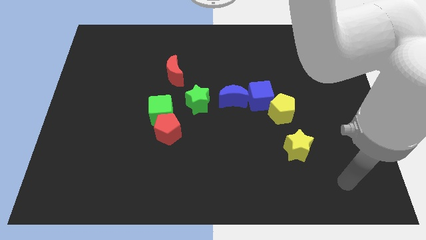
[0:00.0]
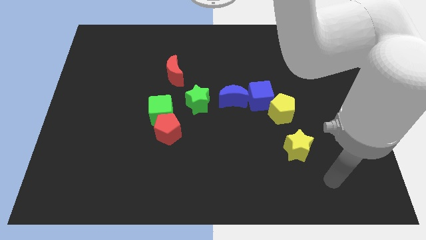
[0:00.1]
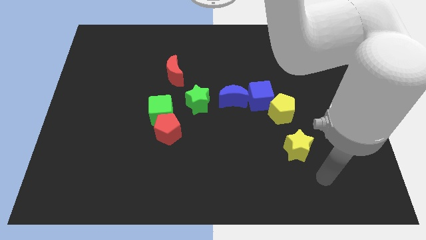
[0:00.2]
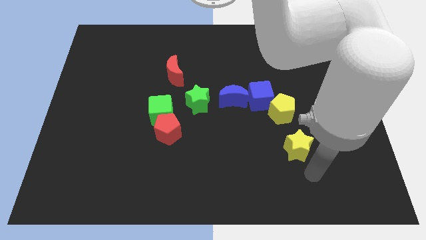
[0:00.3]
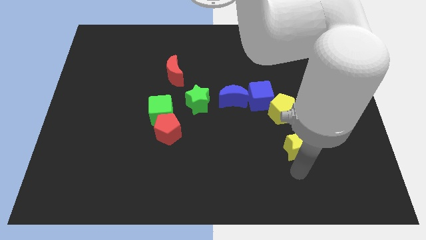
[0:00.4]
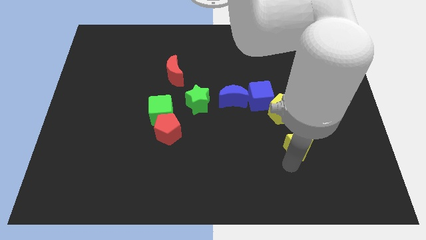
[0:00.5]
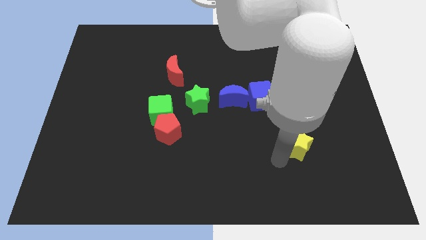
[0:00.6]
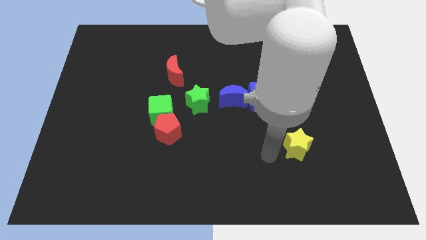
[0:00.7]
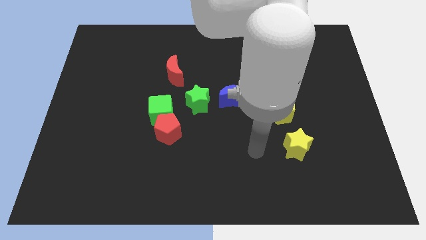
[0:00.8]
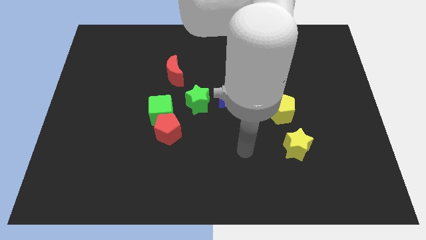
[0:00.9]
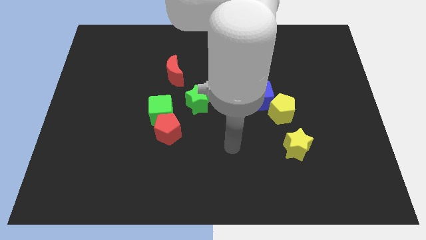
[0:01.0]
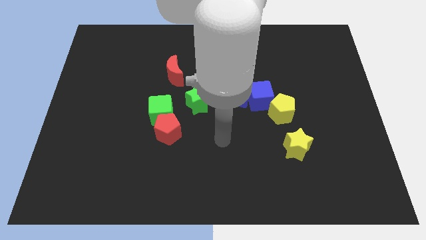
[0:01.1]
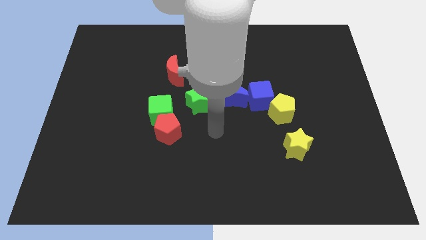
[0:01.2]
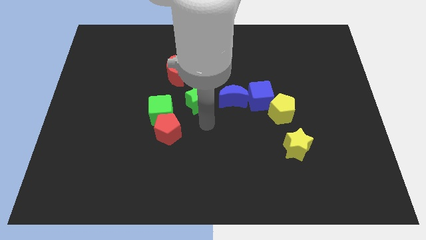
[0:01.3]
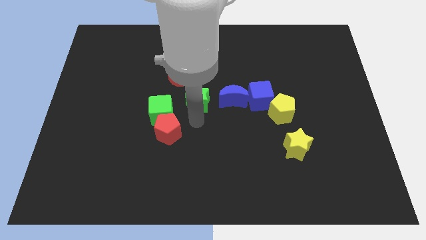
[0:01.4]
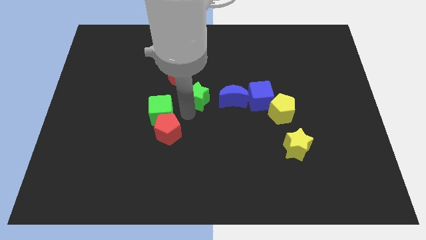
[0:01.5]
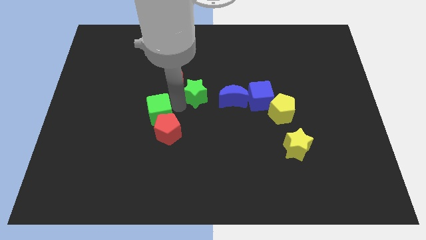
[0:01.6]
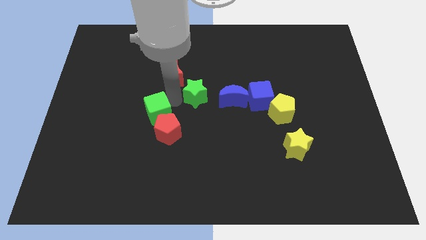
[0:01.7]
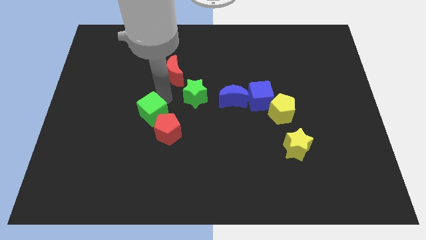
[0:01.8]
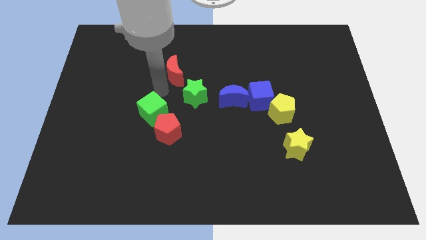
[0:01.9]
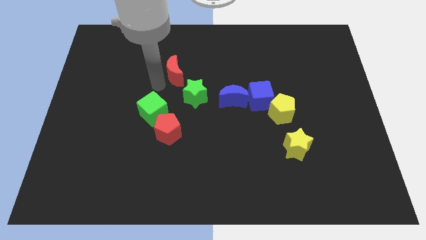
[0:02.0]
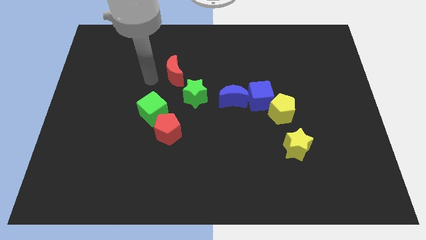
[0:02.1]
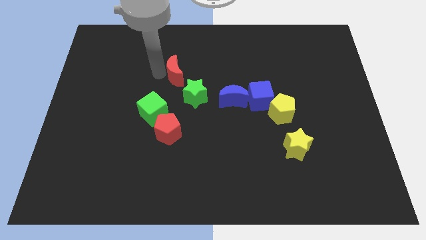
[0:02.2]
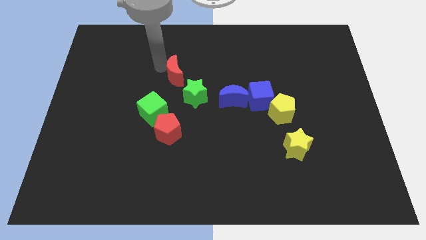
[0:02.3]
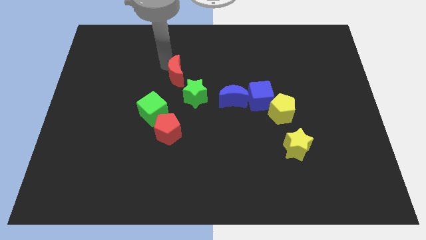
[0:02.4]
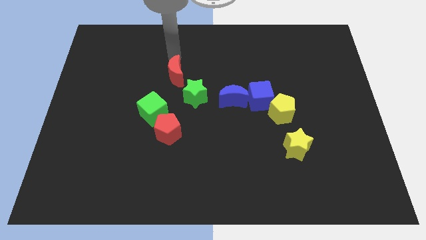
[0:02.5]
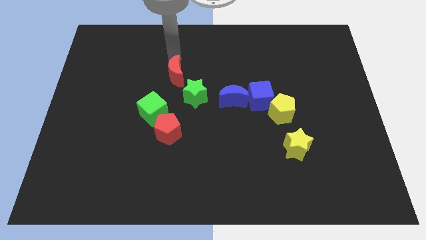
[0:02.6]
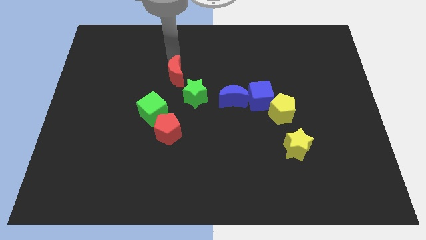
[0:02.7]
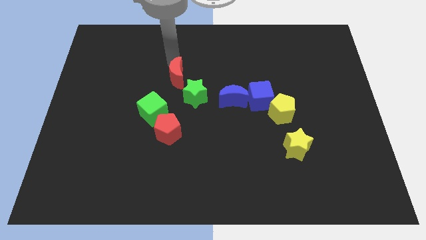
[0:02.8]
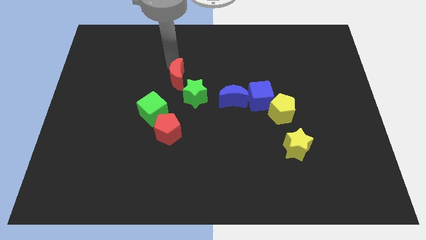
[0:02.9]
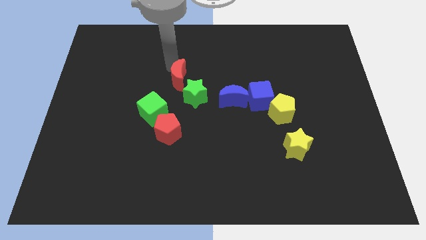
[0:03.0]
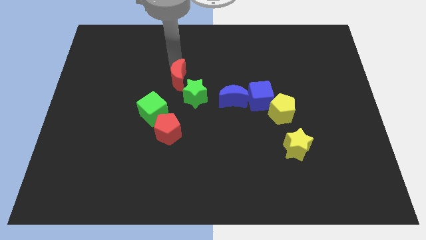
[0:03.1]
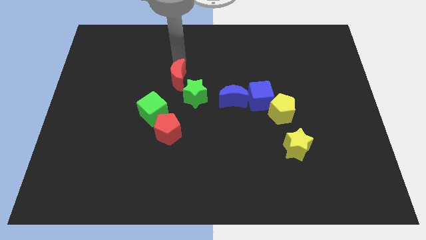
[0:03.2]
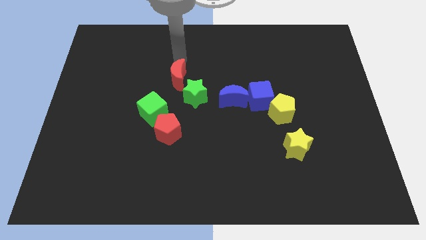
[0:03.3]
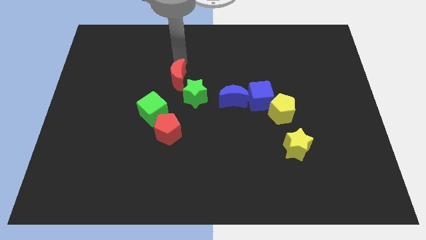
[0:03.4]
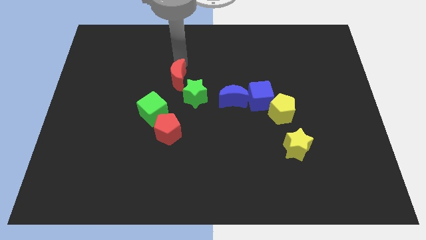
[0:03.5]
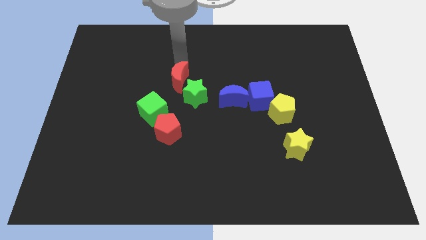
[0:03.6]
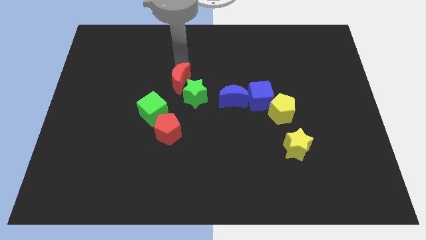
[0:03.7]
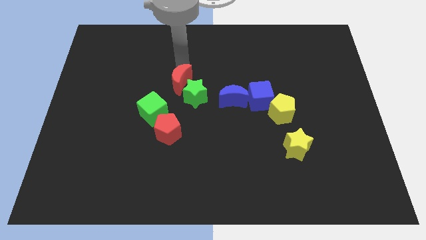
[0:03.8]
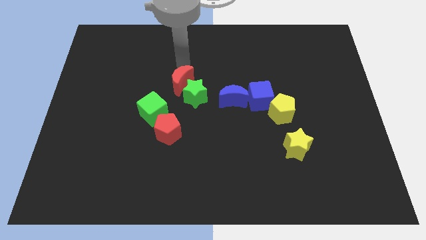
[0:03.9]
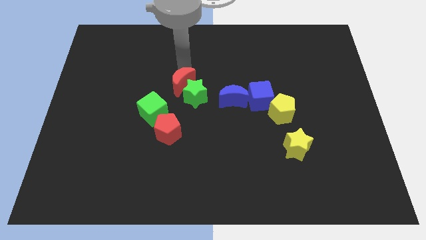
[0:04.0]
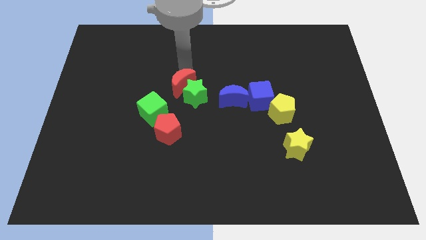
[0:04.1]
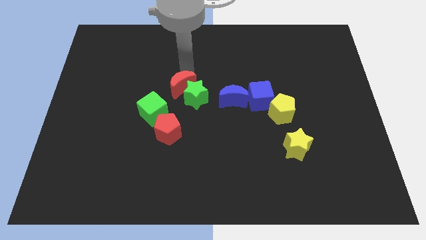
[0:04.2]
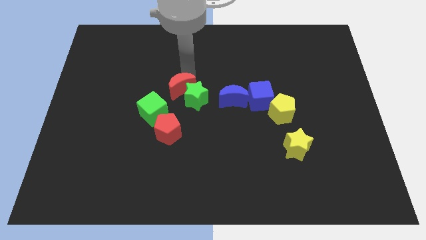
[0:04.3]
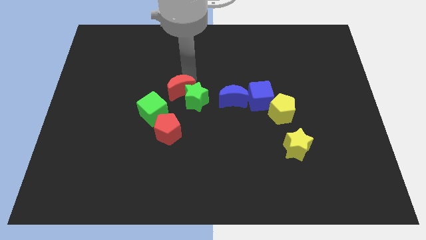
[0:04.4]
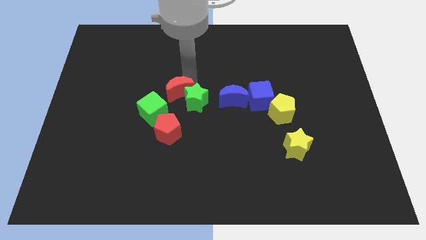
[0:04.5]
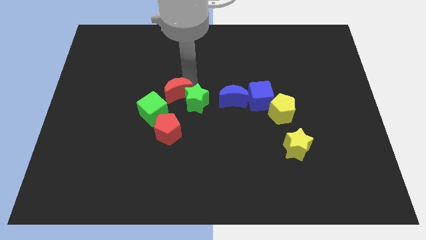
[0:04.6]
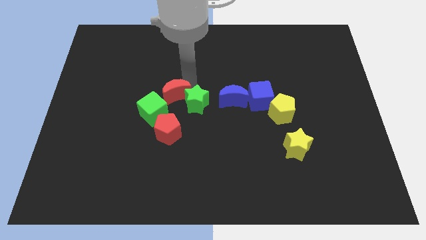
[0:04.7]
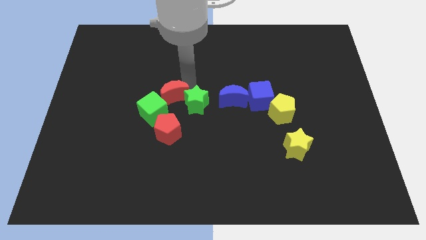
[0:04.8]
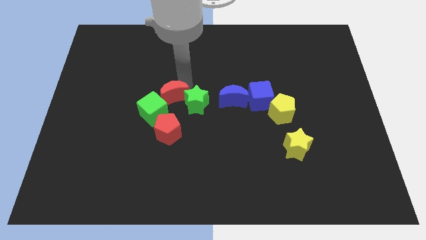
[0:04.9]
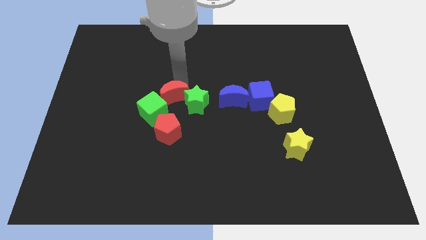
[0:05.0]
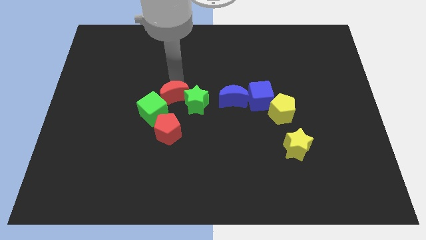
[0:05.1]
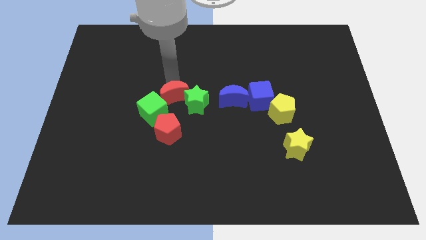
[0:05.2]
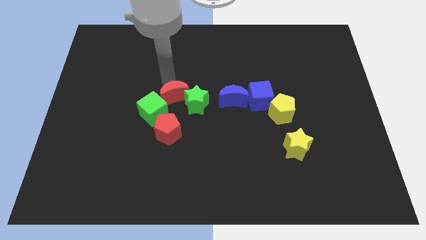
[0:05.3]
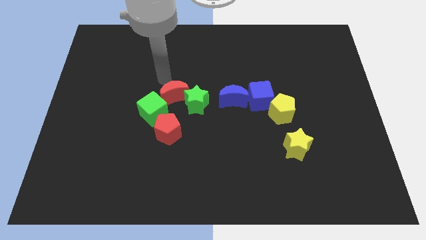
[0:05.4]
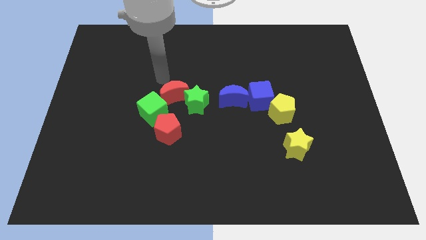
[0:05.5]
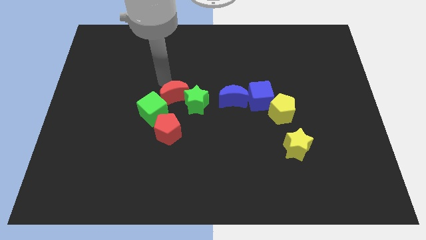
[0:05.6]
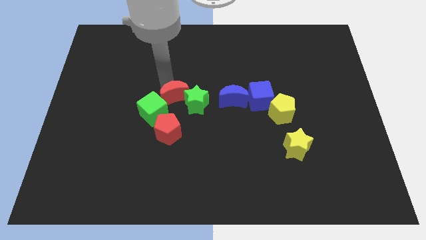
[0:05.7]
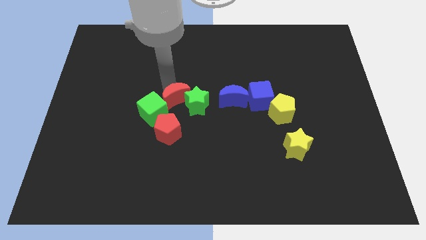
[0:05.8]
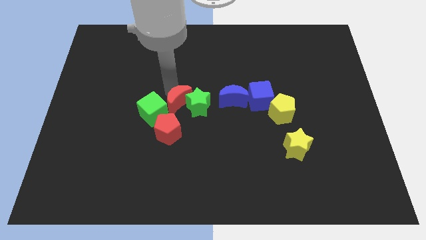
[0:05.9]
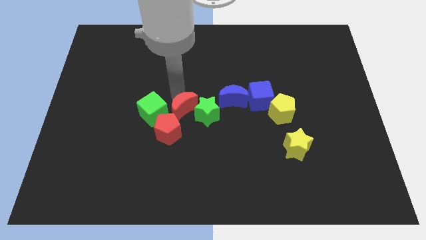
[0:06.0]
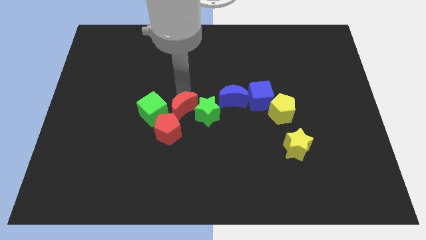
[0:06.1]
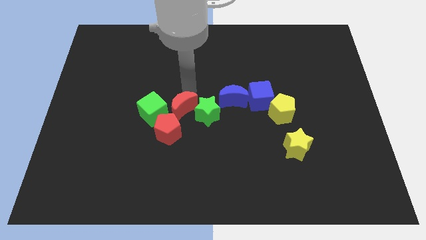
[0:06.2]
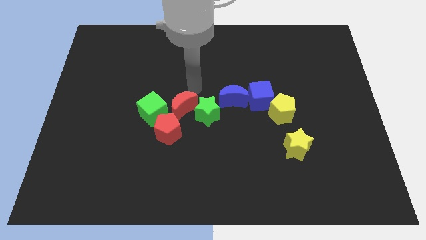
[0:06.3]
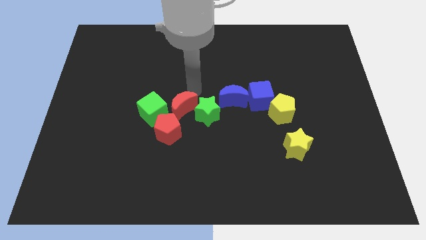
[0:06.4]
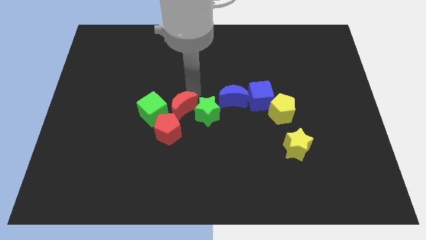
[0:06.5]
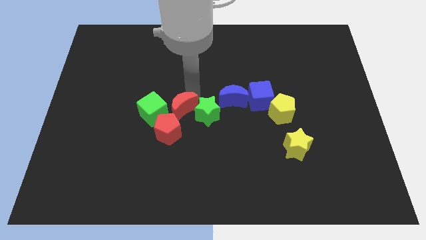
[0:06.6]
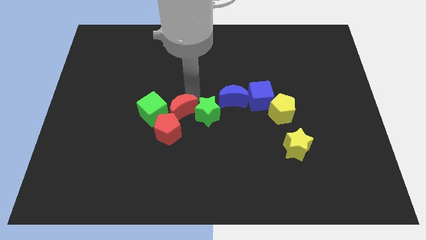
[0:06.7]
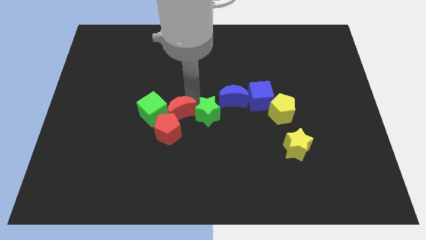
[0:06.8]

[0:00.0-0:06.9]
push the red moon towards the red pentagon

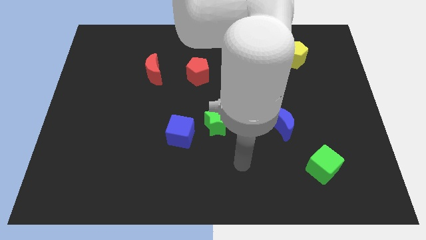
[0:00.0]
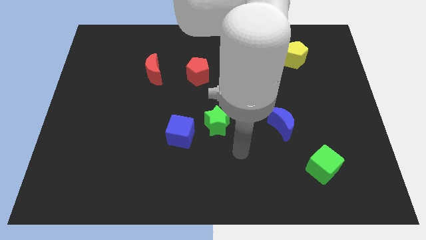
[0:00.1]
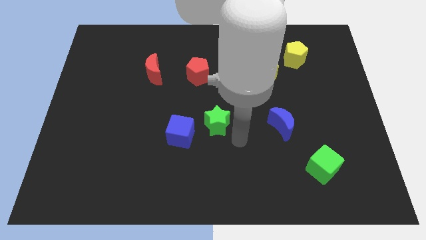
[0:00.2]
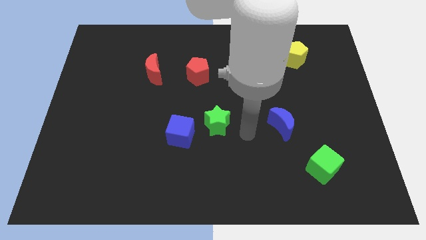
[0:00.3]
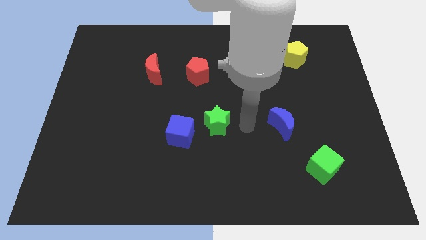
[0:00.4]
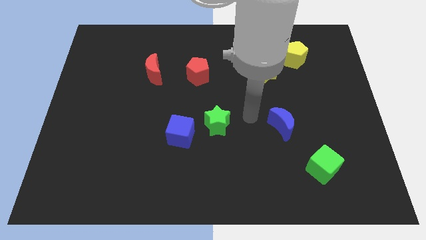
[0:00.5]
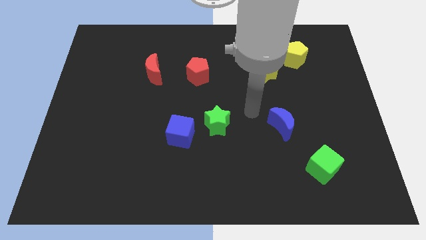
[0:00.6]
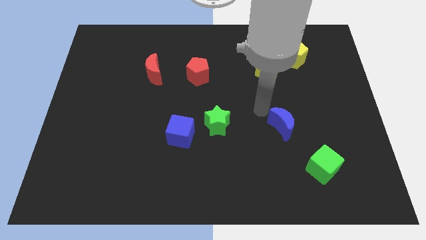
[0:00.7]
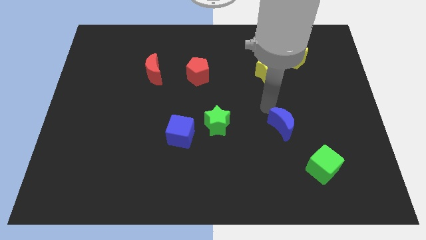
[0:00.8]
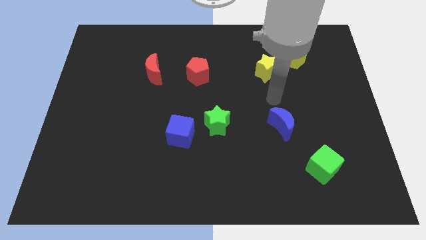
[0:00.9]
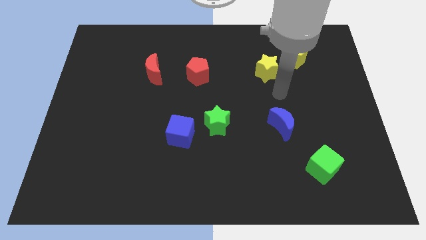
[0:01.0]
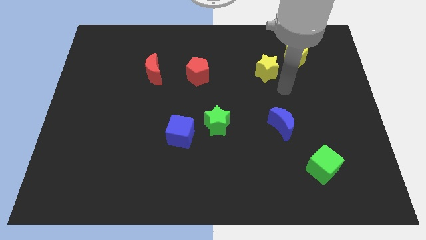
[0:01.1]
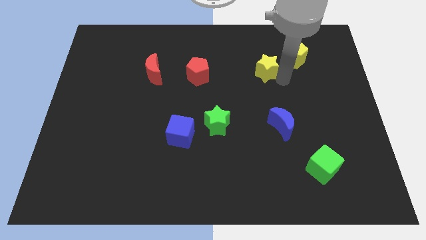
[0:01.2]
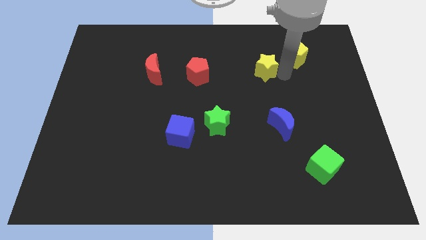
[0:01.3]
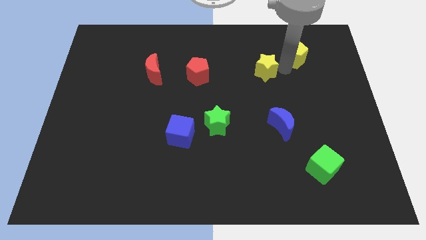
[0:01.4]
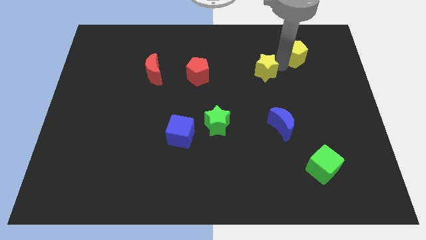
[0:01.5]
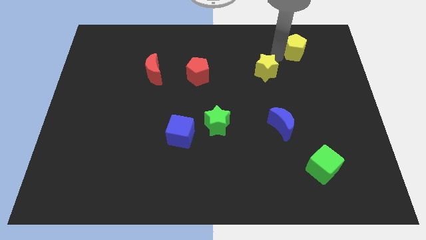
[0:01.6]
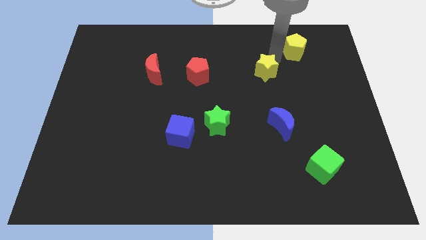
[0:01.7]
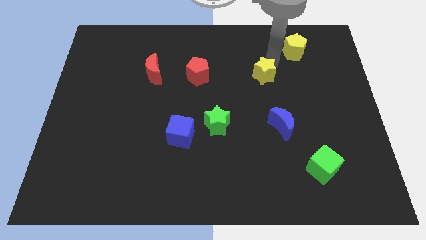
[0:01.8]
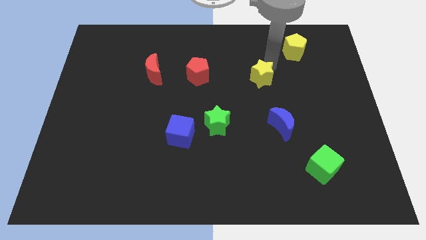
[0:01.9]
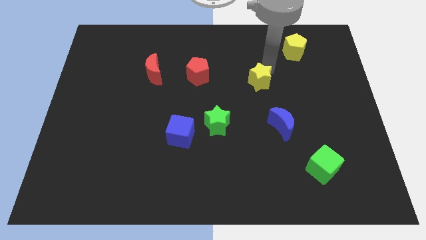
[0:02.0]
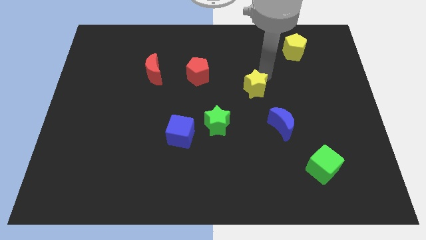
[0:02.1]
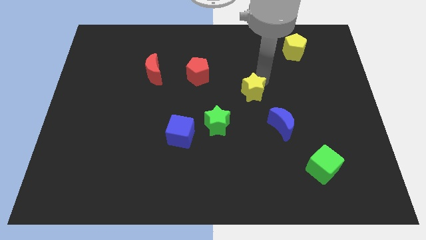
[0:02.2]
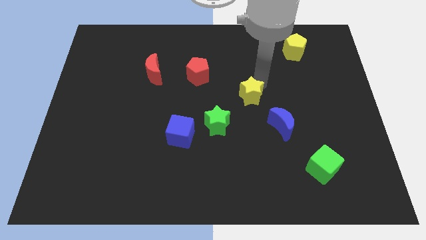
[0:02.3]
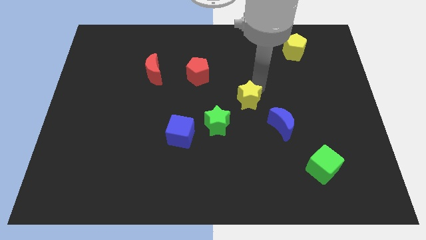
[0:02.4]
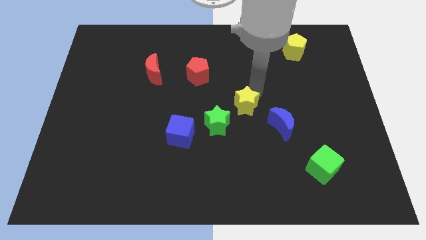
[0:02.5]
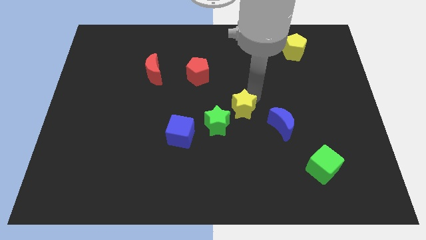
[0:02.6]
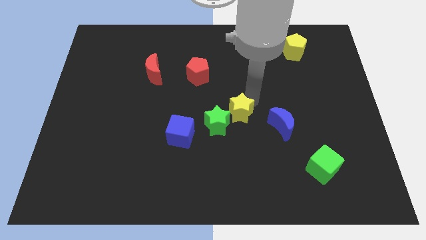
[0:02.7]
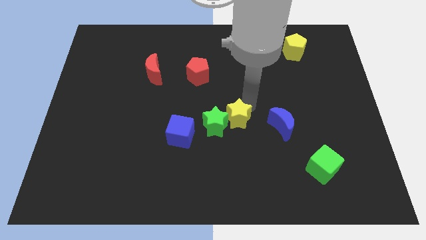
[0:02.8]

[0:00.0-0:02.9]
push the yellow star to the green star
